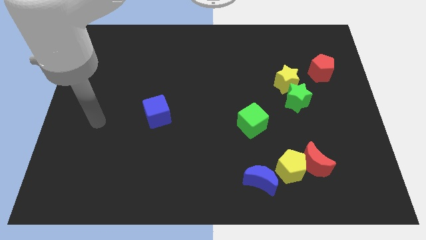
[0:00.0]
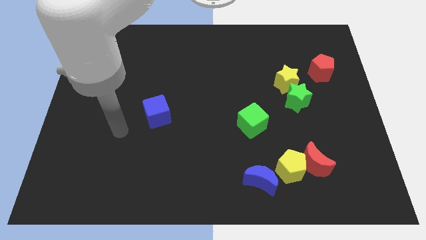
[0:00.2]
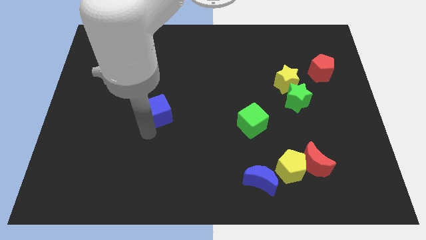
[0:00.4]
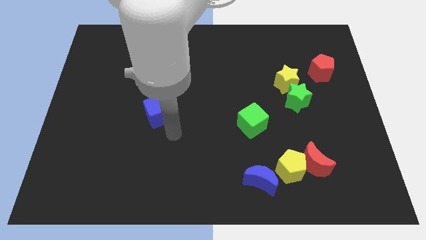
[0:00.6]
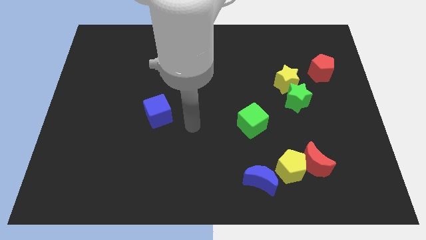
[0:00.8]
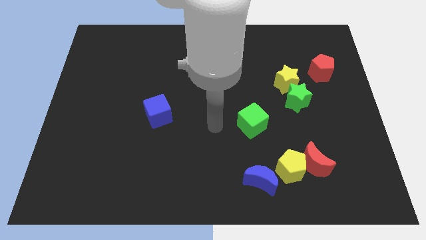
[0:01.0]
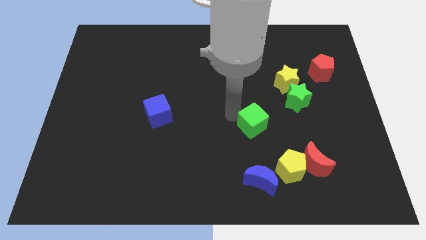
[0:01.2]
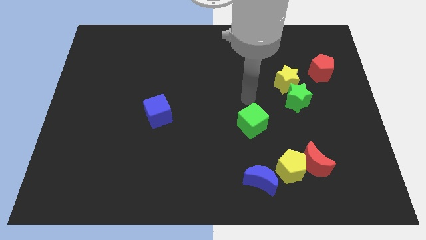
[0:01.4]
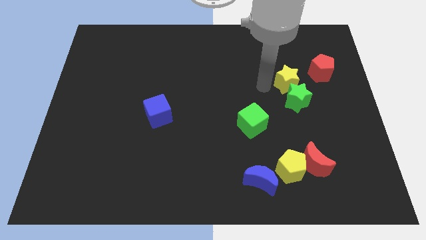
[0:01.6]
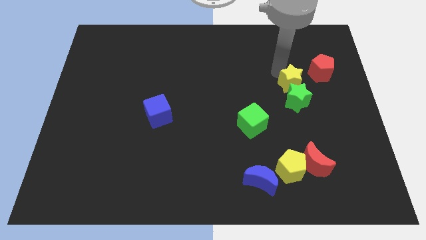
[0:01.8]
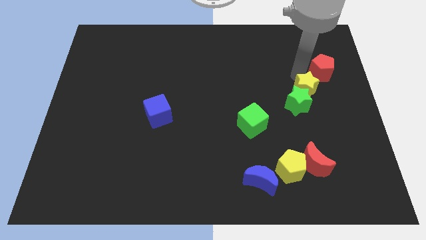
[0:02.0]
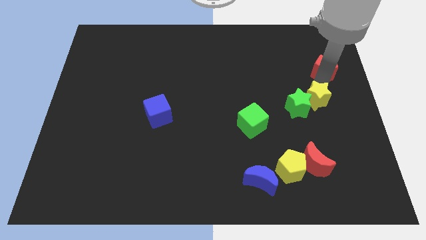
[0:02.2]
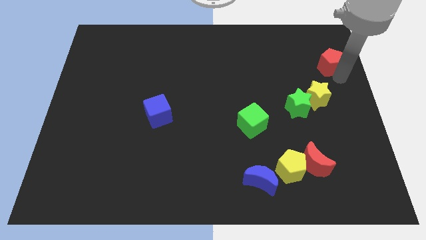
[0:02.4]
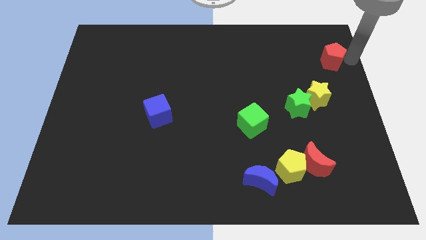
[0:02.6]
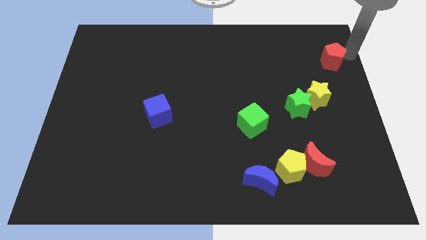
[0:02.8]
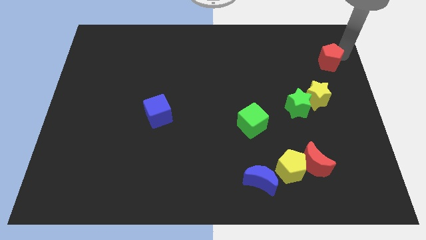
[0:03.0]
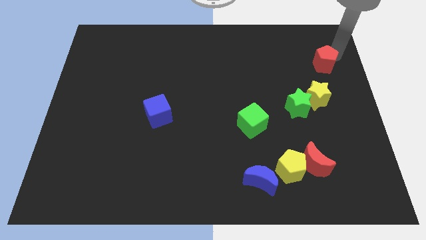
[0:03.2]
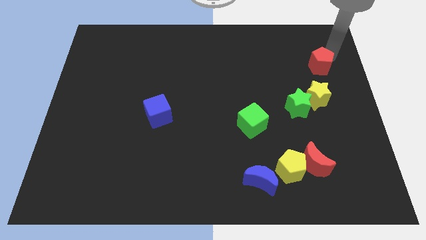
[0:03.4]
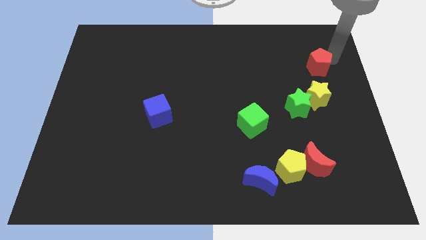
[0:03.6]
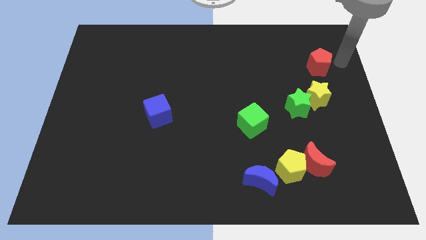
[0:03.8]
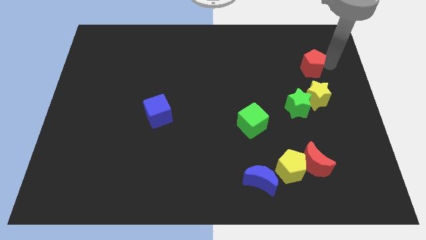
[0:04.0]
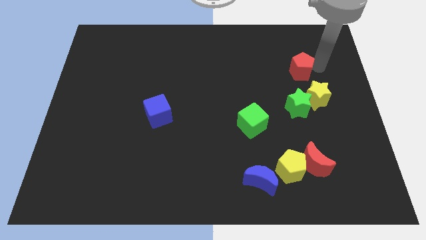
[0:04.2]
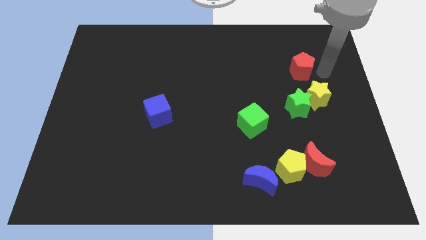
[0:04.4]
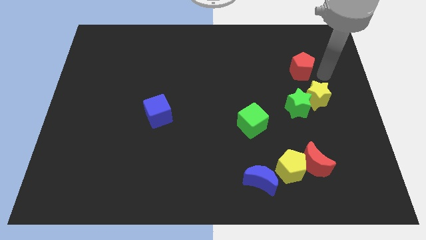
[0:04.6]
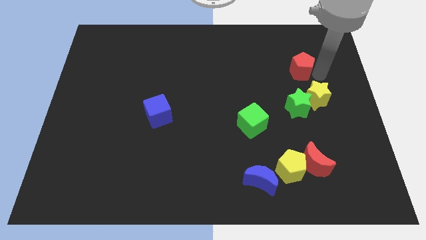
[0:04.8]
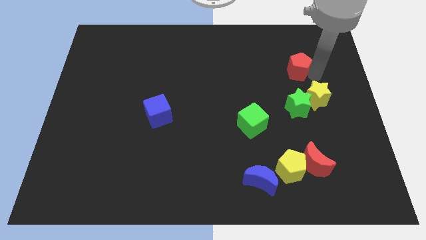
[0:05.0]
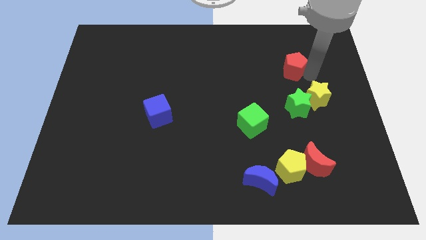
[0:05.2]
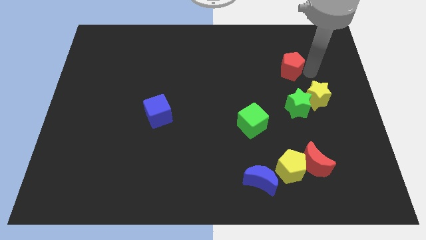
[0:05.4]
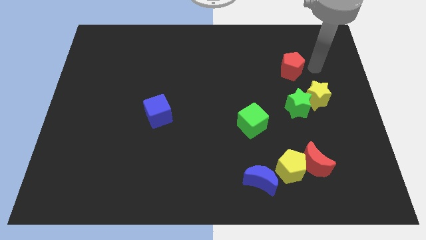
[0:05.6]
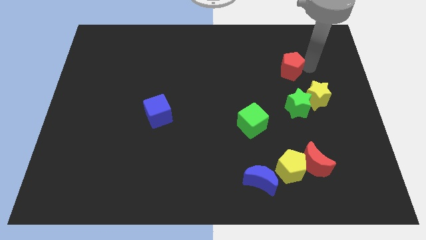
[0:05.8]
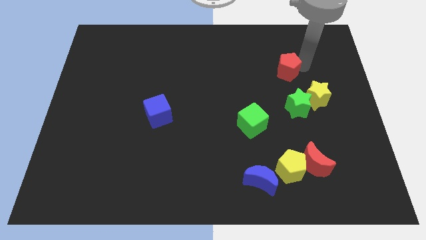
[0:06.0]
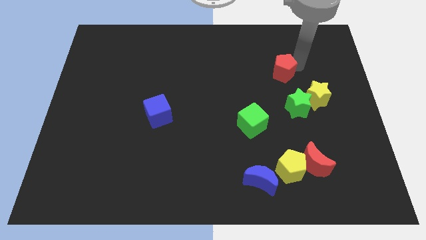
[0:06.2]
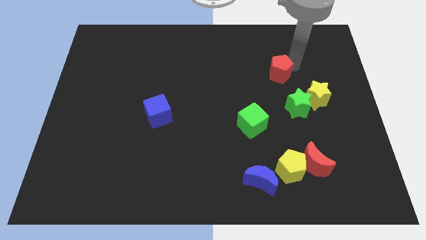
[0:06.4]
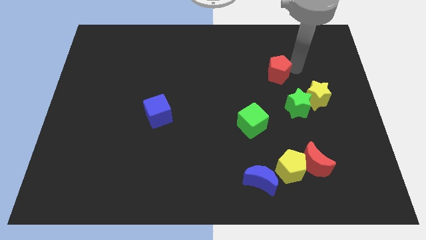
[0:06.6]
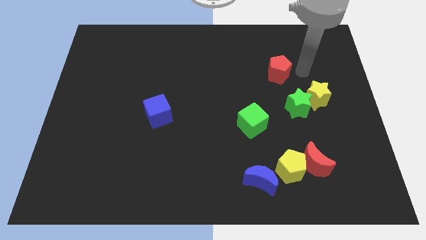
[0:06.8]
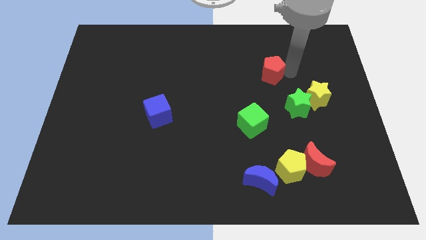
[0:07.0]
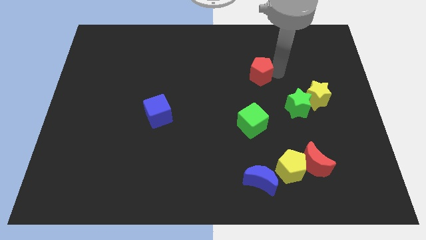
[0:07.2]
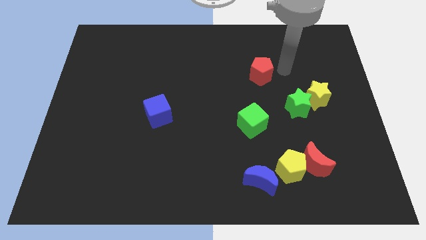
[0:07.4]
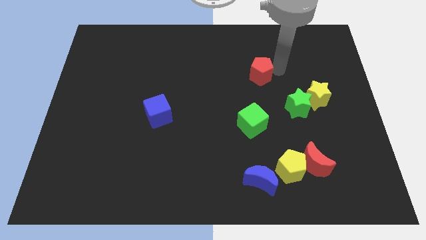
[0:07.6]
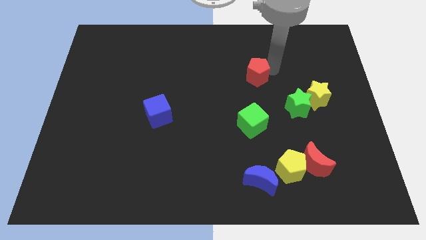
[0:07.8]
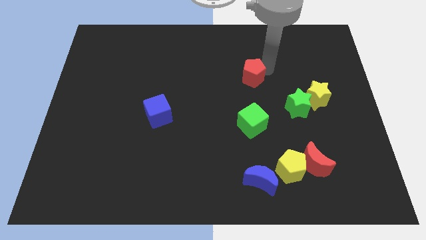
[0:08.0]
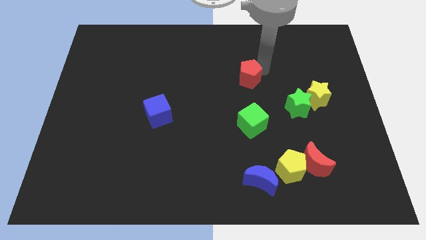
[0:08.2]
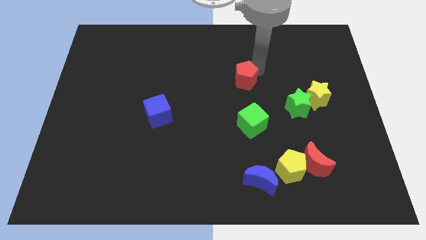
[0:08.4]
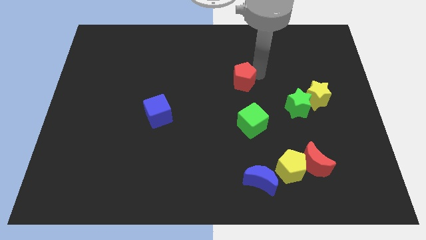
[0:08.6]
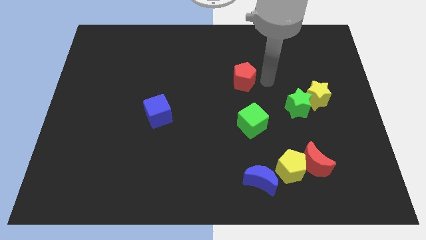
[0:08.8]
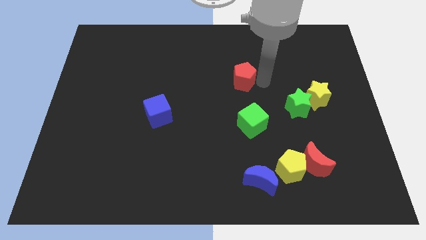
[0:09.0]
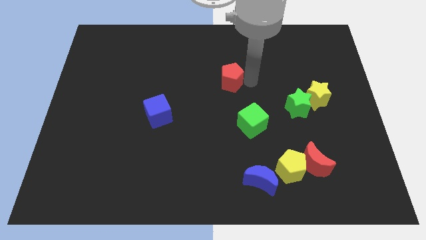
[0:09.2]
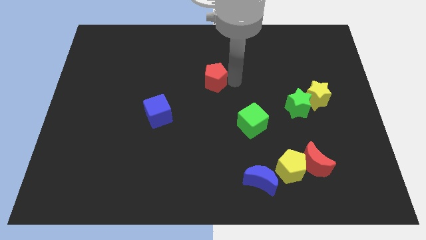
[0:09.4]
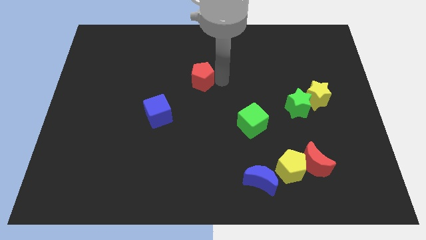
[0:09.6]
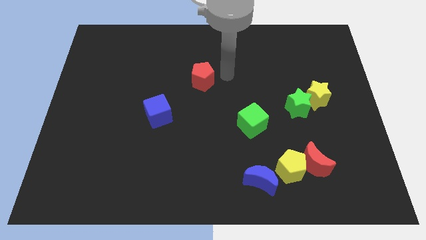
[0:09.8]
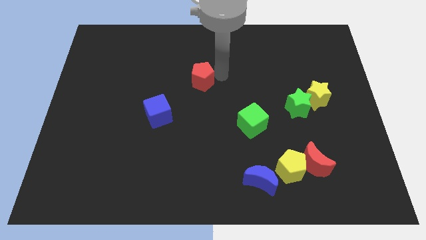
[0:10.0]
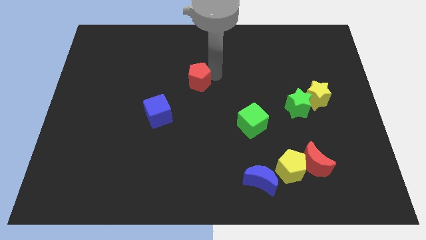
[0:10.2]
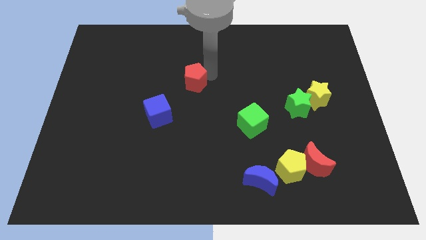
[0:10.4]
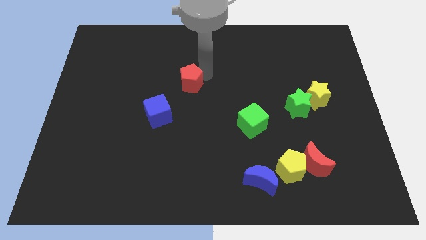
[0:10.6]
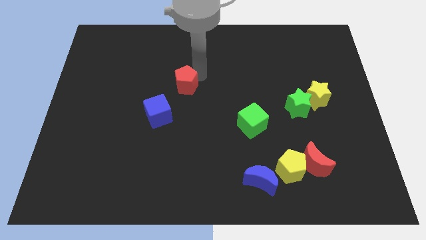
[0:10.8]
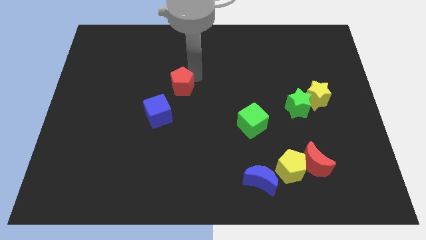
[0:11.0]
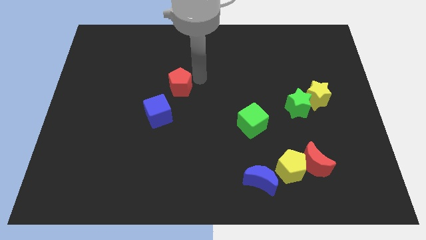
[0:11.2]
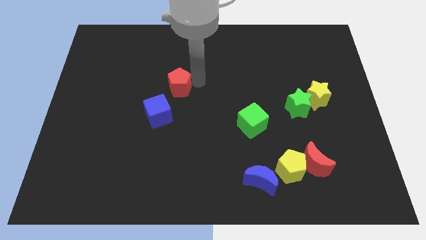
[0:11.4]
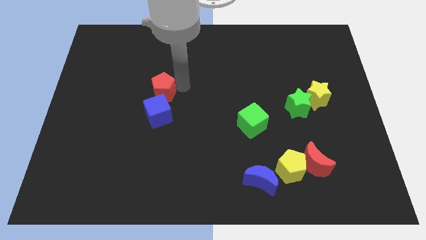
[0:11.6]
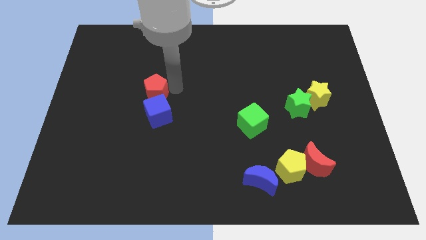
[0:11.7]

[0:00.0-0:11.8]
move the red pentagon to the top left side of the blue cube

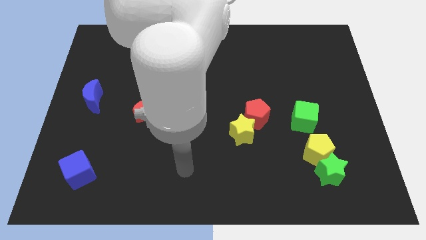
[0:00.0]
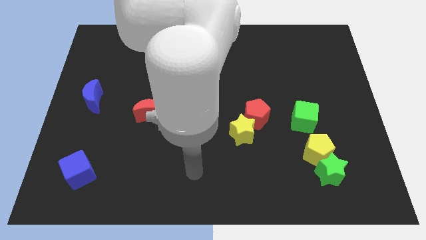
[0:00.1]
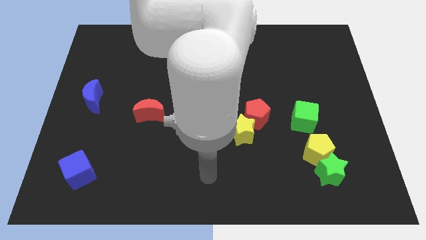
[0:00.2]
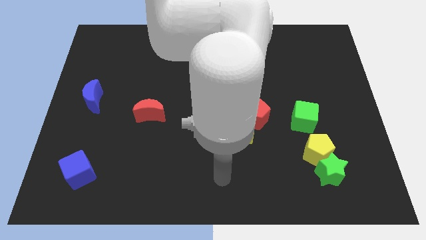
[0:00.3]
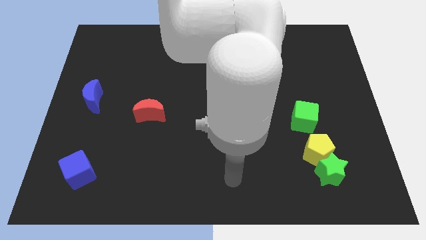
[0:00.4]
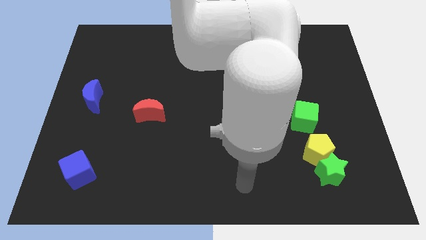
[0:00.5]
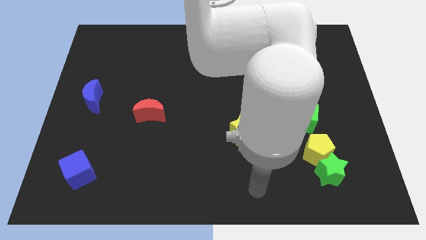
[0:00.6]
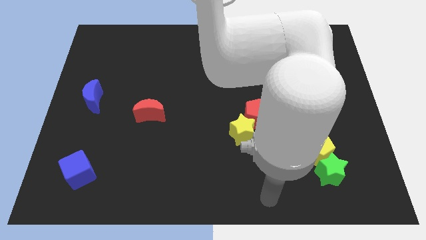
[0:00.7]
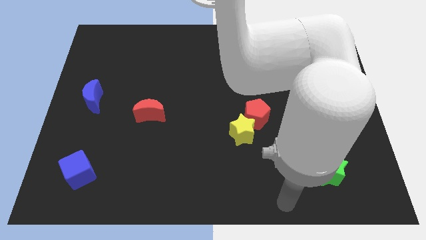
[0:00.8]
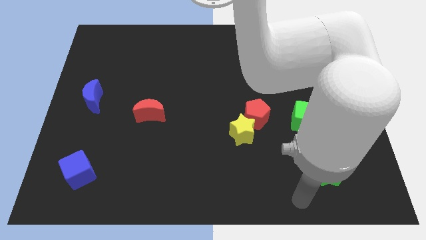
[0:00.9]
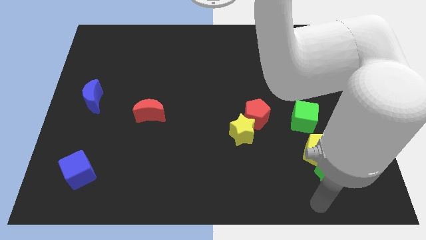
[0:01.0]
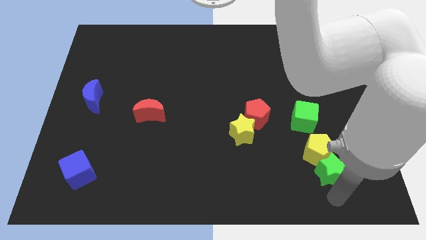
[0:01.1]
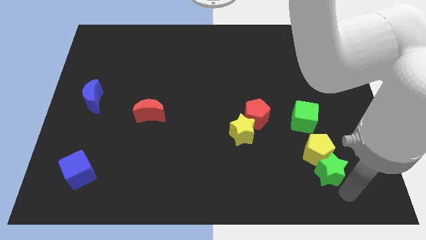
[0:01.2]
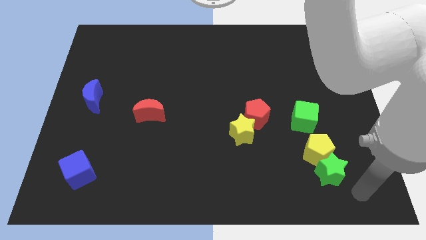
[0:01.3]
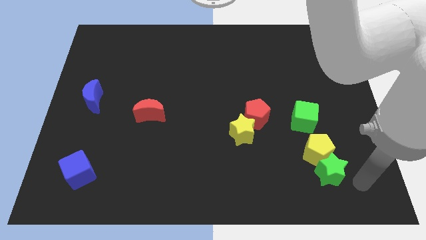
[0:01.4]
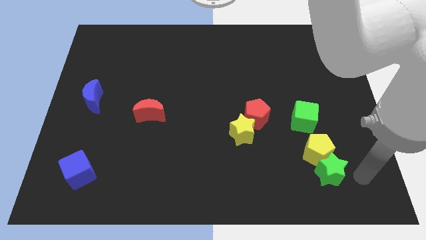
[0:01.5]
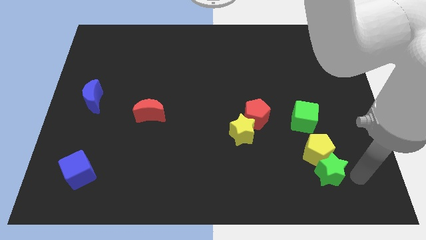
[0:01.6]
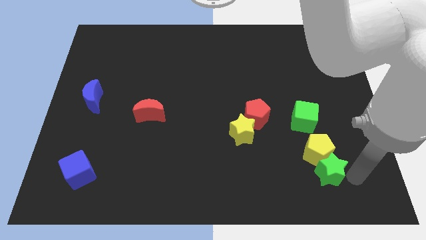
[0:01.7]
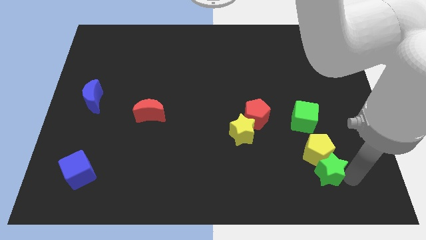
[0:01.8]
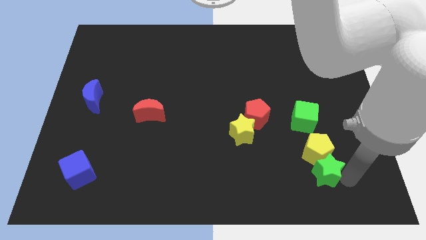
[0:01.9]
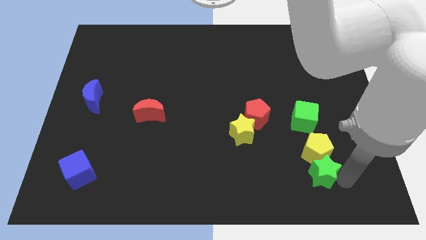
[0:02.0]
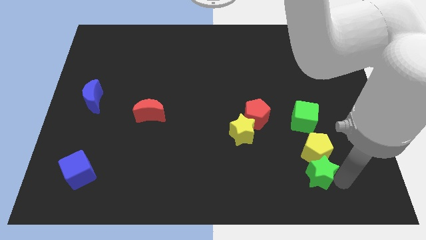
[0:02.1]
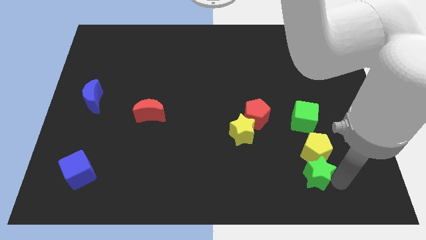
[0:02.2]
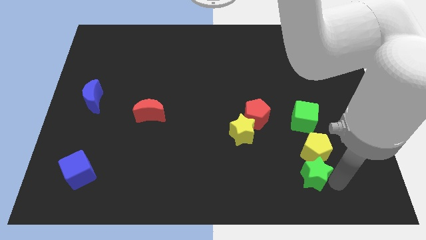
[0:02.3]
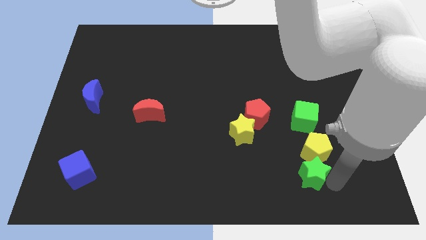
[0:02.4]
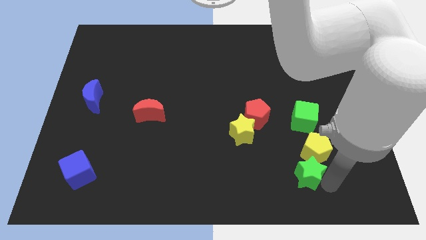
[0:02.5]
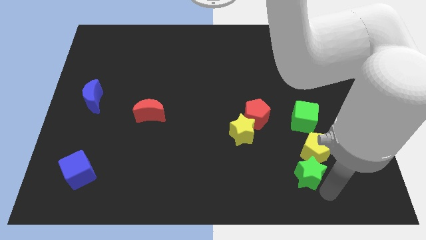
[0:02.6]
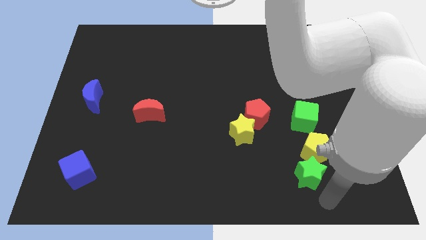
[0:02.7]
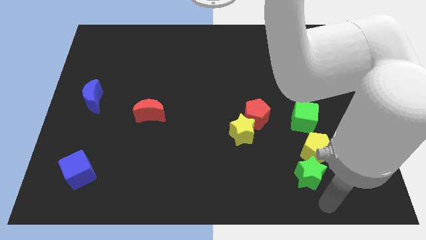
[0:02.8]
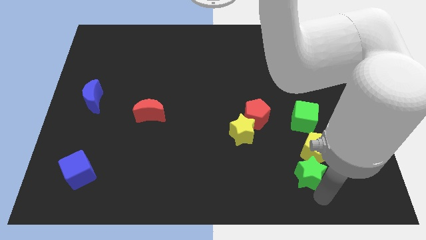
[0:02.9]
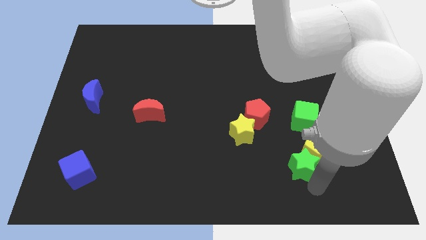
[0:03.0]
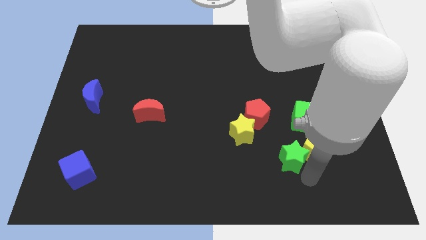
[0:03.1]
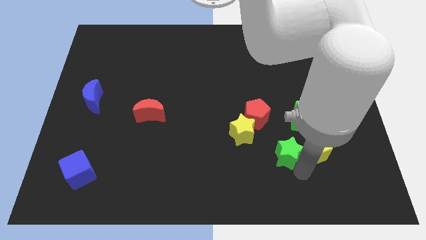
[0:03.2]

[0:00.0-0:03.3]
slide the green star to the bottom left side of the green cube
